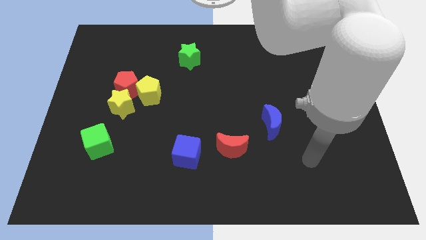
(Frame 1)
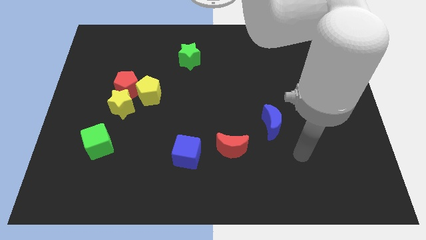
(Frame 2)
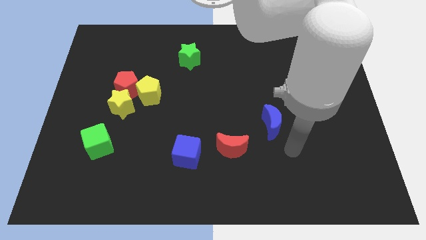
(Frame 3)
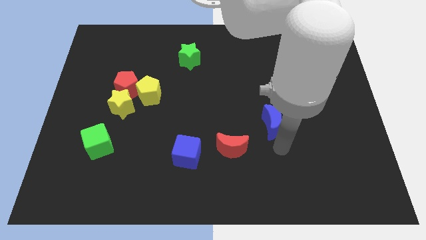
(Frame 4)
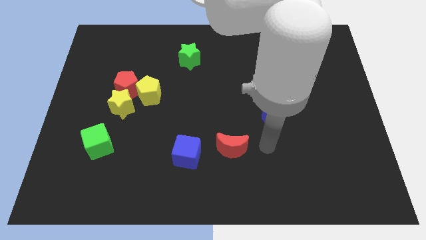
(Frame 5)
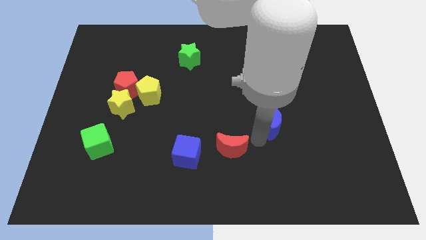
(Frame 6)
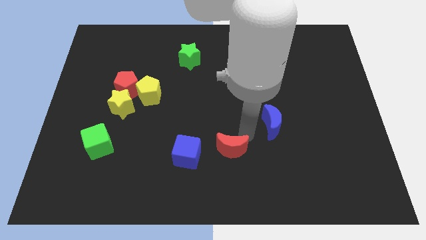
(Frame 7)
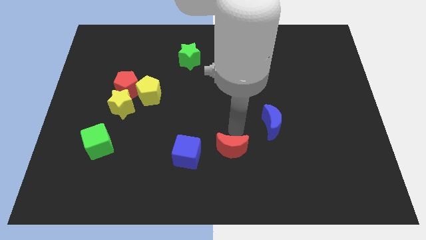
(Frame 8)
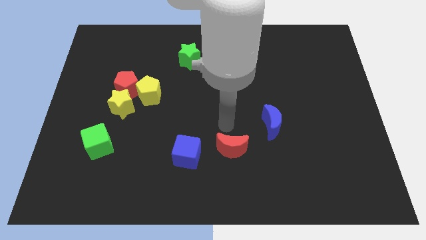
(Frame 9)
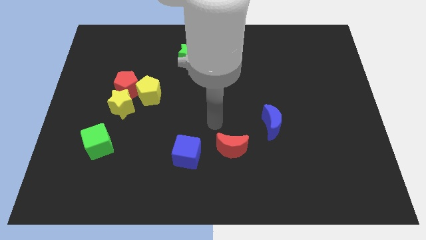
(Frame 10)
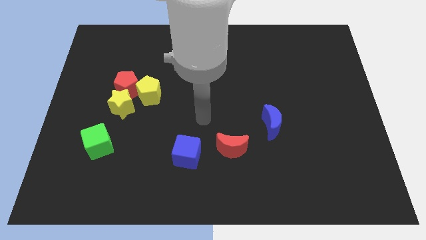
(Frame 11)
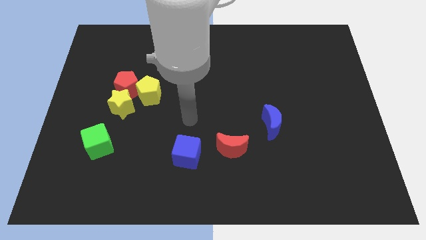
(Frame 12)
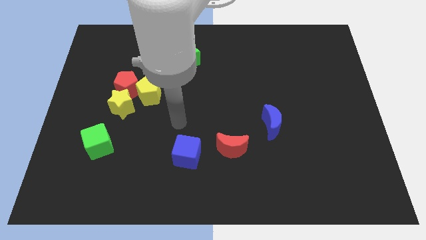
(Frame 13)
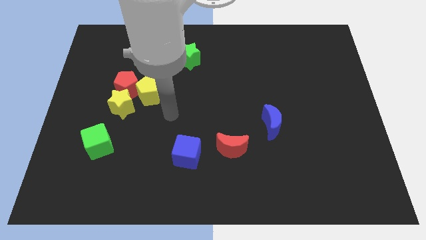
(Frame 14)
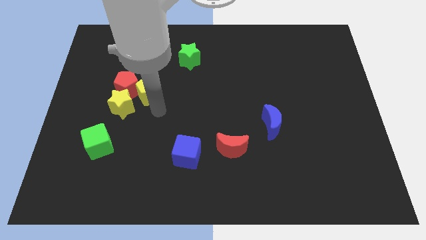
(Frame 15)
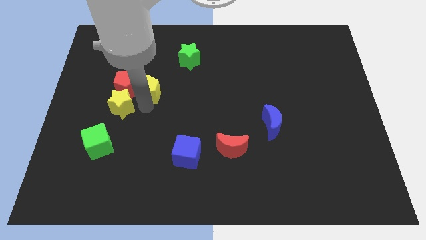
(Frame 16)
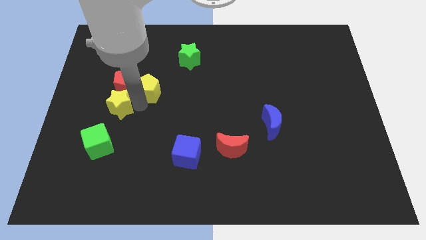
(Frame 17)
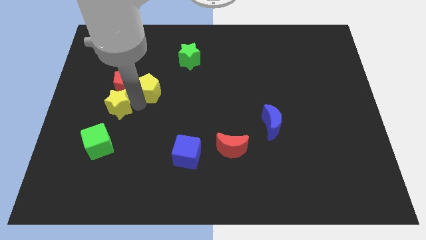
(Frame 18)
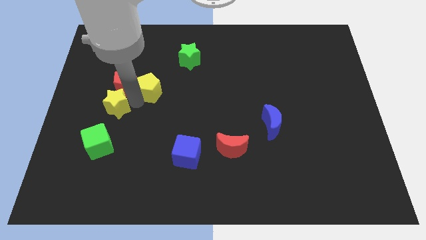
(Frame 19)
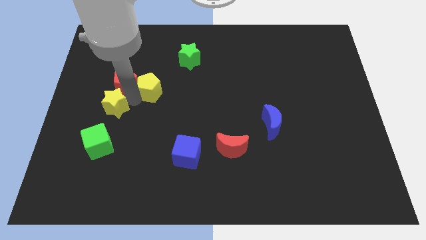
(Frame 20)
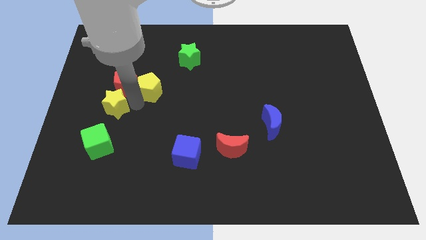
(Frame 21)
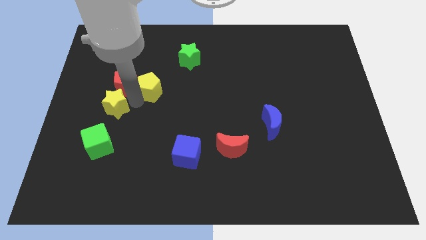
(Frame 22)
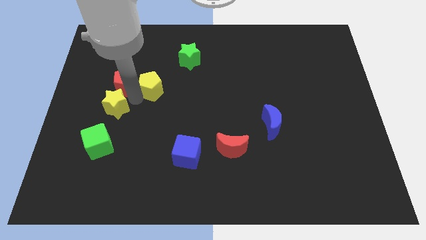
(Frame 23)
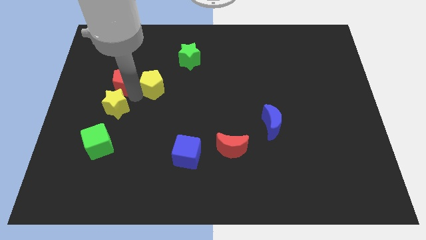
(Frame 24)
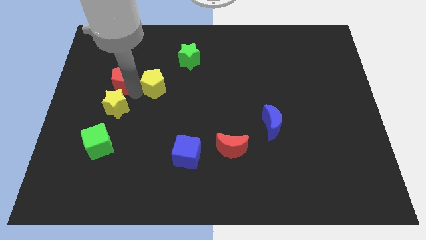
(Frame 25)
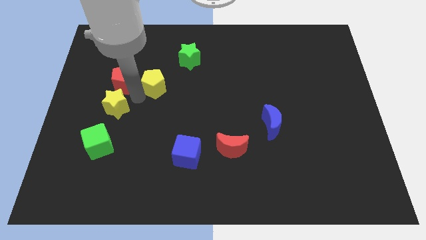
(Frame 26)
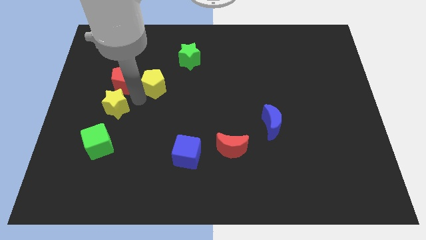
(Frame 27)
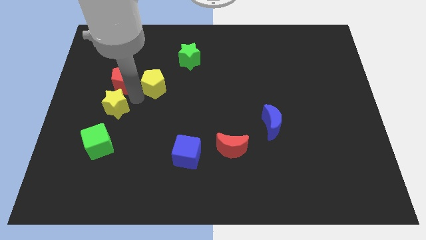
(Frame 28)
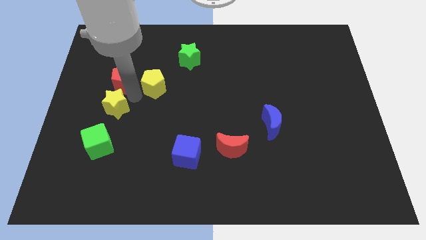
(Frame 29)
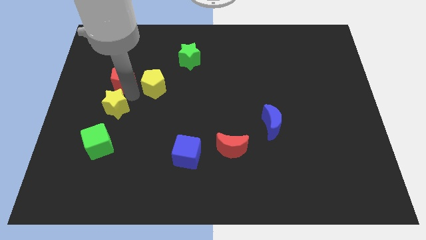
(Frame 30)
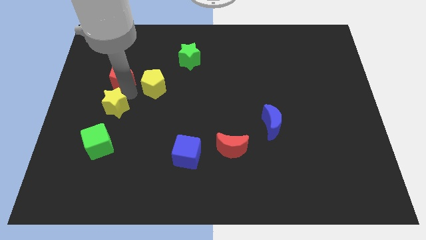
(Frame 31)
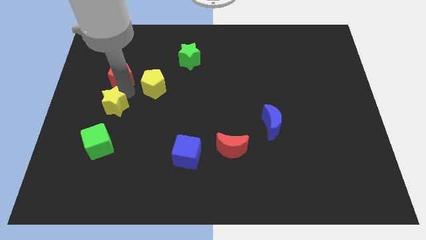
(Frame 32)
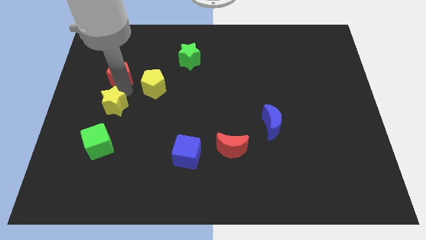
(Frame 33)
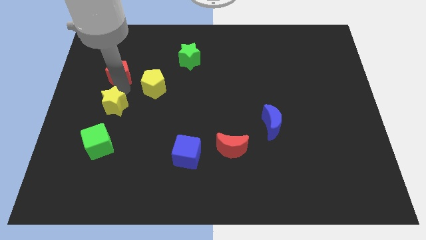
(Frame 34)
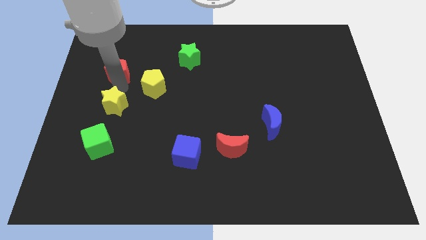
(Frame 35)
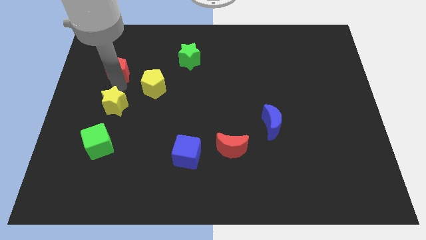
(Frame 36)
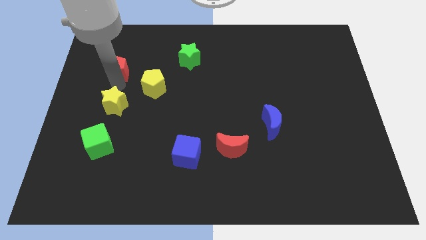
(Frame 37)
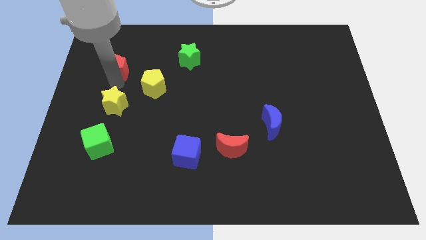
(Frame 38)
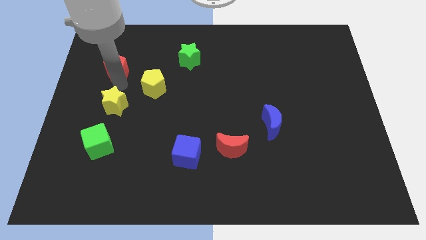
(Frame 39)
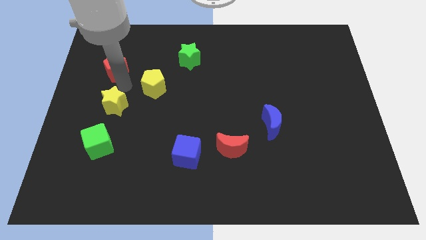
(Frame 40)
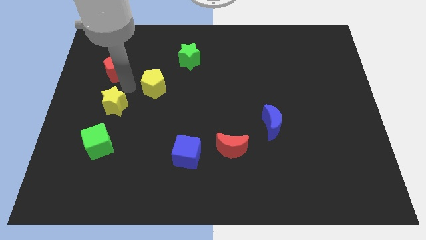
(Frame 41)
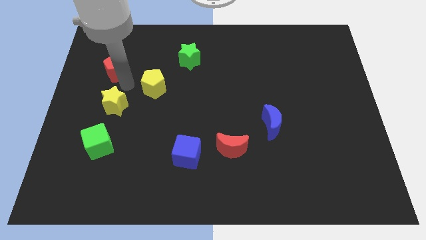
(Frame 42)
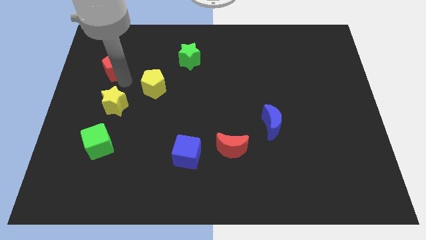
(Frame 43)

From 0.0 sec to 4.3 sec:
pull the red pentagon apart from the yellow star and yellow pentagon

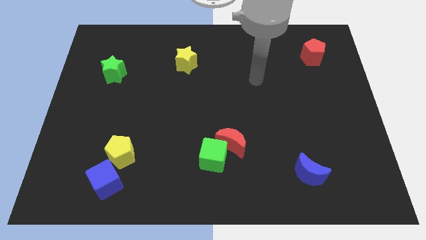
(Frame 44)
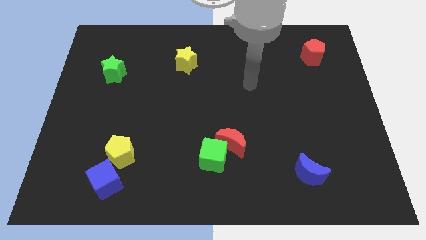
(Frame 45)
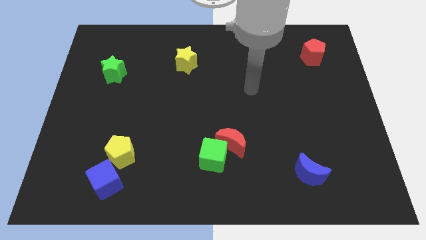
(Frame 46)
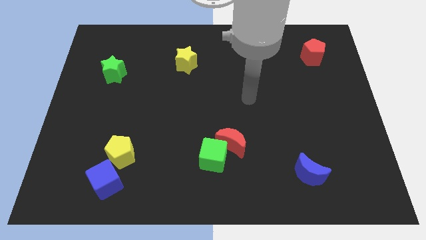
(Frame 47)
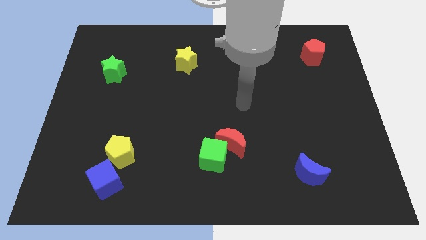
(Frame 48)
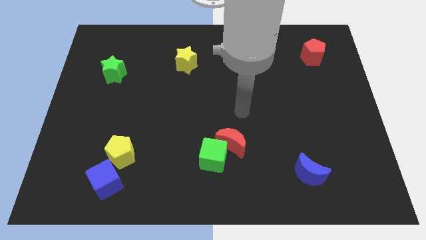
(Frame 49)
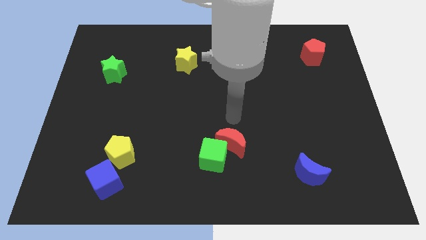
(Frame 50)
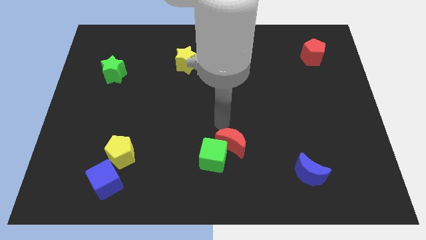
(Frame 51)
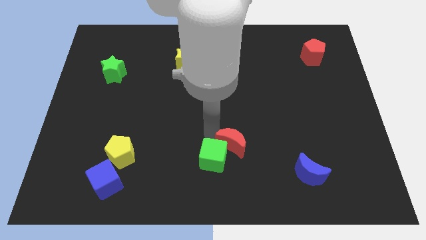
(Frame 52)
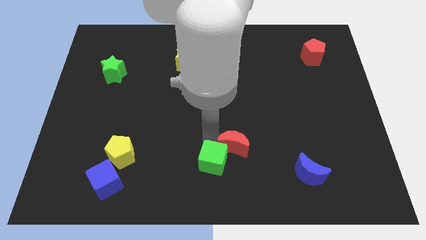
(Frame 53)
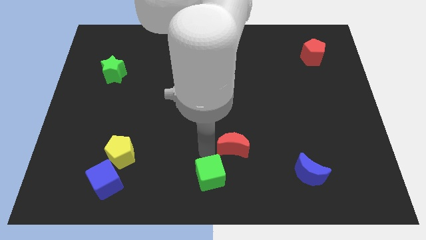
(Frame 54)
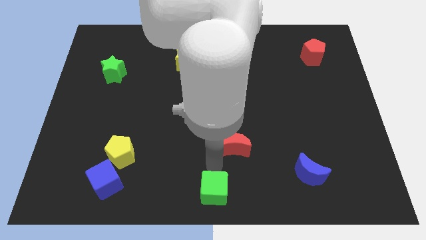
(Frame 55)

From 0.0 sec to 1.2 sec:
move the red moon away from the green cube

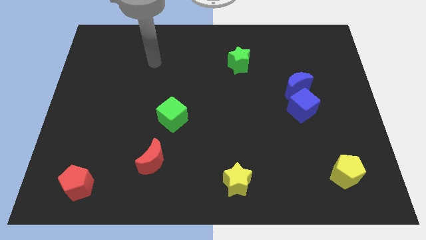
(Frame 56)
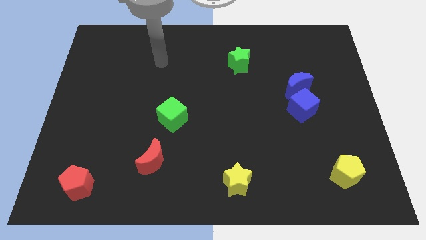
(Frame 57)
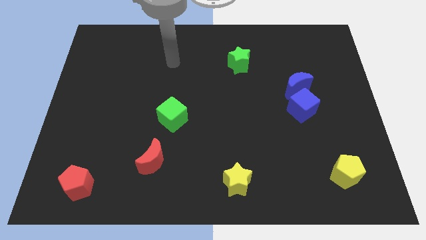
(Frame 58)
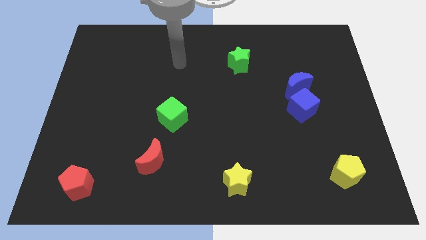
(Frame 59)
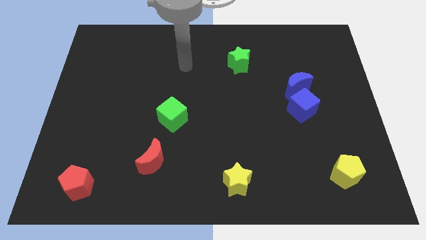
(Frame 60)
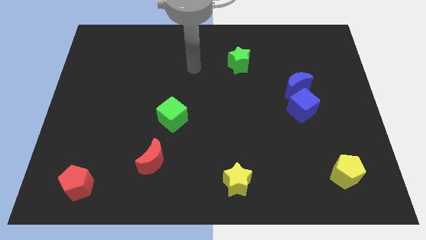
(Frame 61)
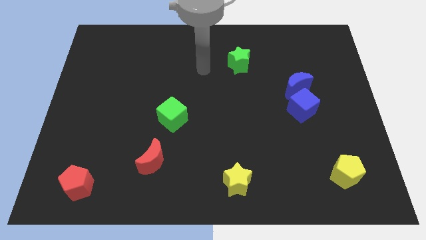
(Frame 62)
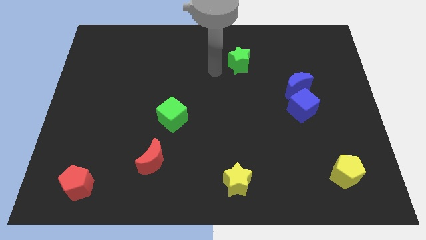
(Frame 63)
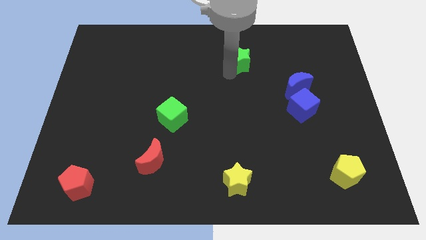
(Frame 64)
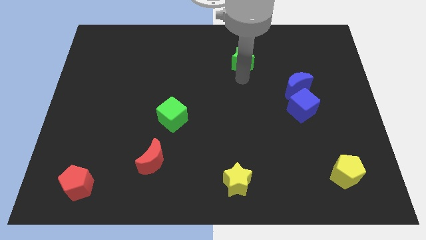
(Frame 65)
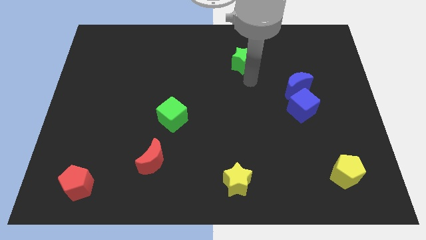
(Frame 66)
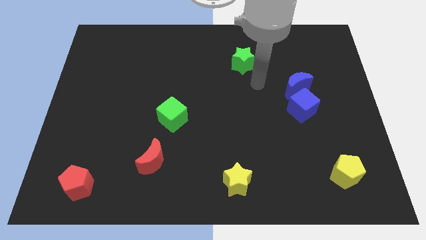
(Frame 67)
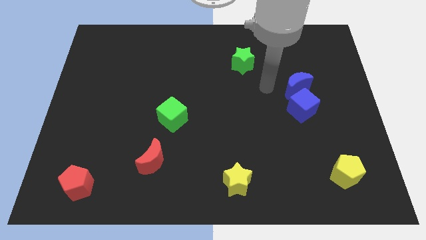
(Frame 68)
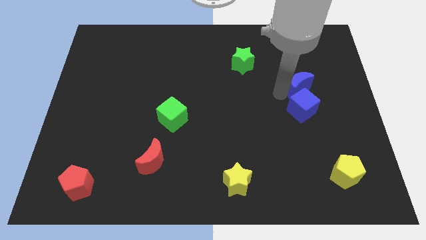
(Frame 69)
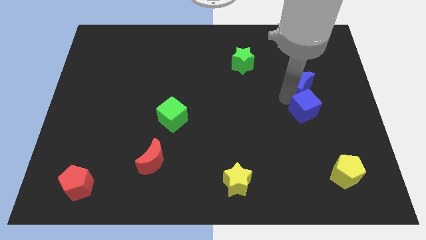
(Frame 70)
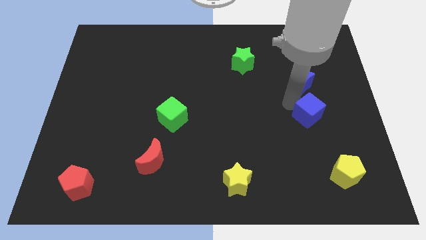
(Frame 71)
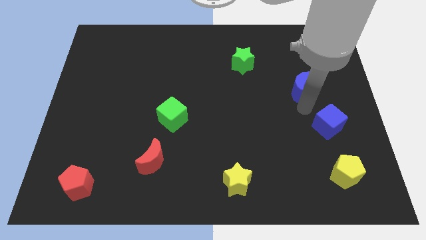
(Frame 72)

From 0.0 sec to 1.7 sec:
move the blue moon away from the blue cube

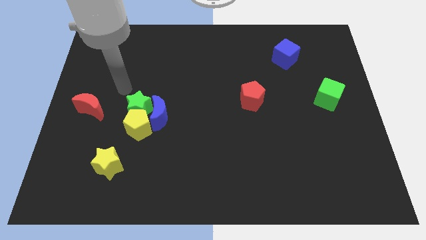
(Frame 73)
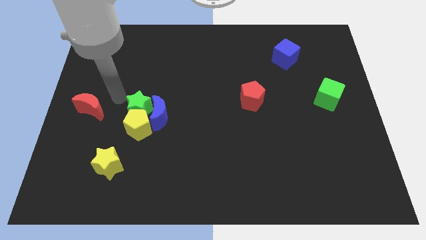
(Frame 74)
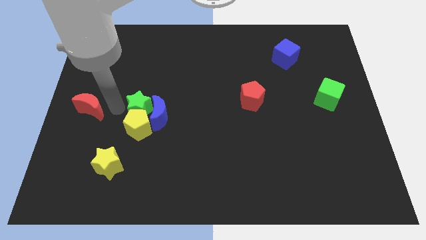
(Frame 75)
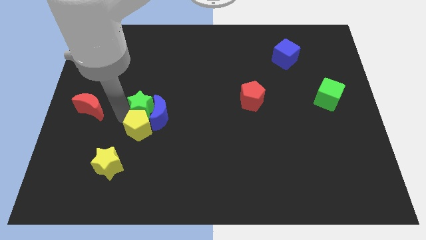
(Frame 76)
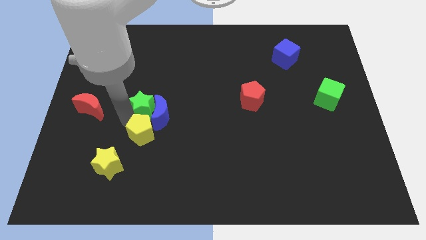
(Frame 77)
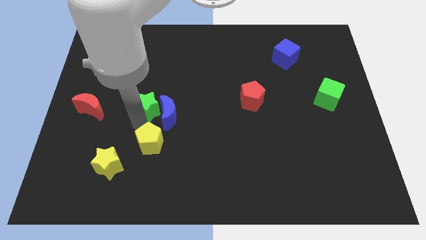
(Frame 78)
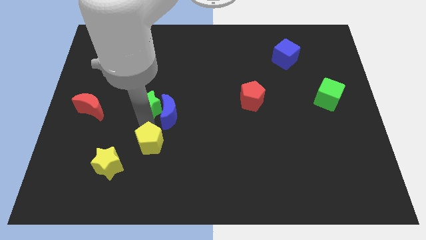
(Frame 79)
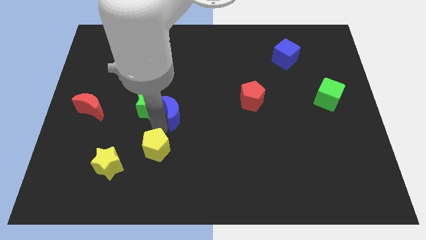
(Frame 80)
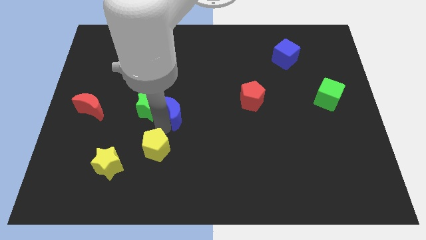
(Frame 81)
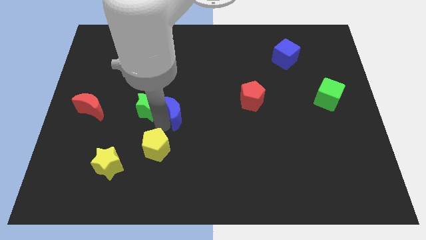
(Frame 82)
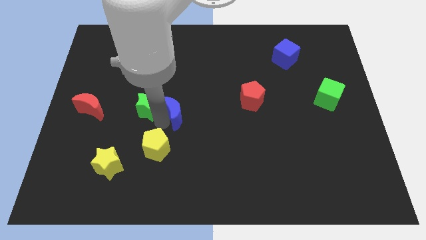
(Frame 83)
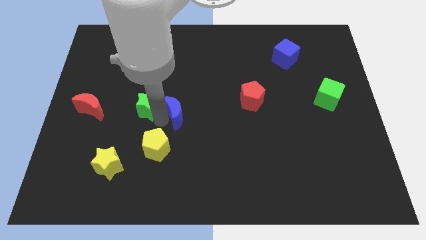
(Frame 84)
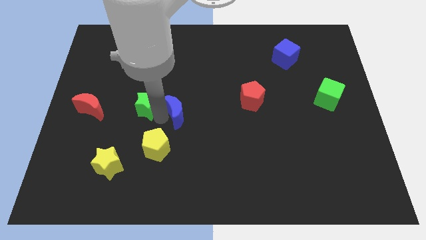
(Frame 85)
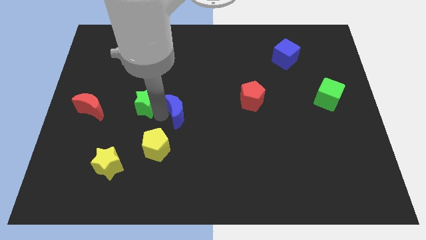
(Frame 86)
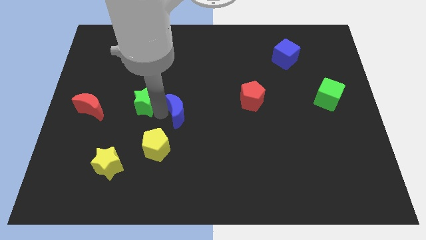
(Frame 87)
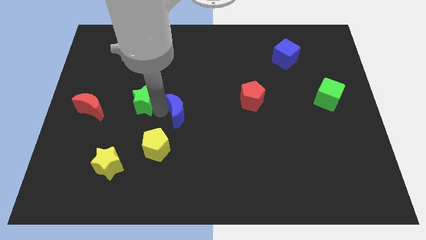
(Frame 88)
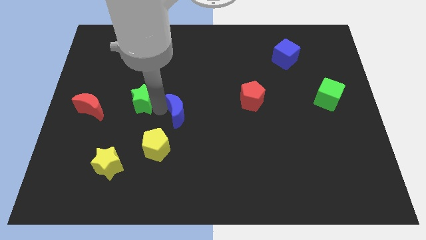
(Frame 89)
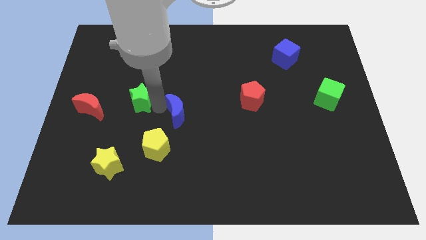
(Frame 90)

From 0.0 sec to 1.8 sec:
move the green star away from the yellow pentagon and blue moon
